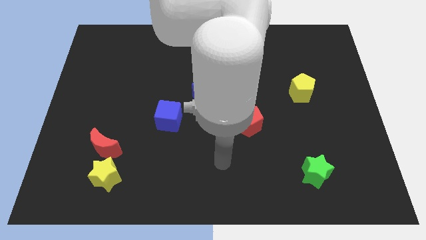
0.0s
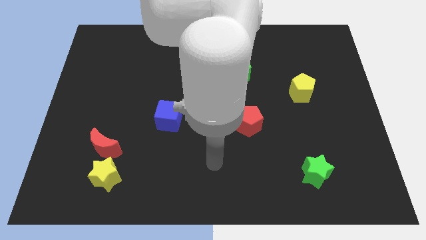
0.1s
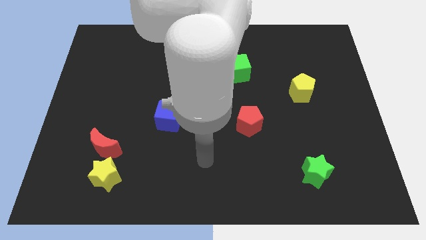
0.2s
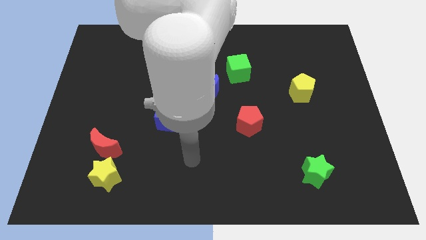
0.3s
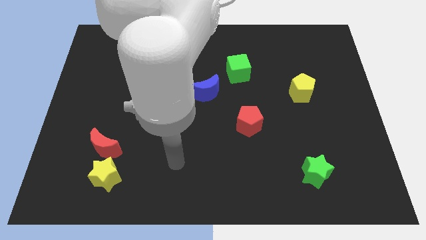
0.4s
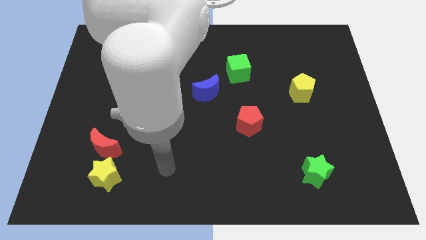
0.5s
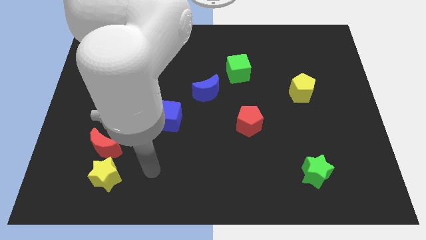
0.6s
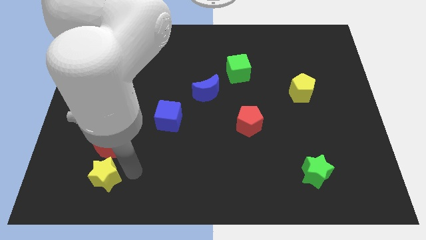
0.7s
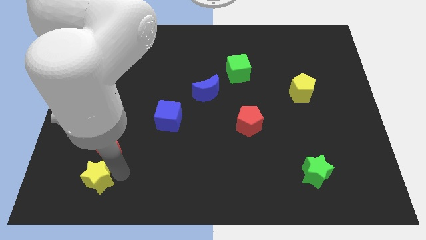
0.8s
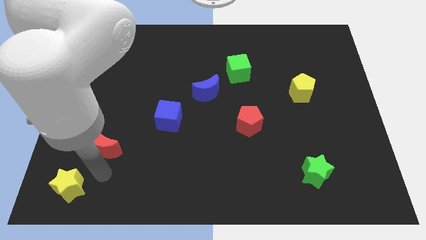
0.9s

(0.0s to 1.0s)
separate the red moon from the yellow star

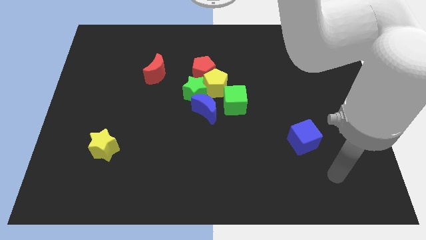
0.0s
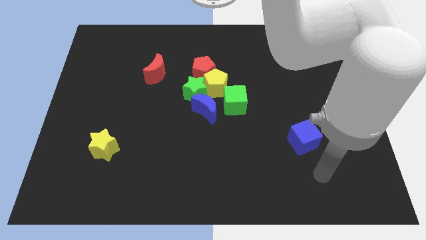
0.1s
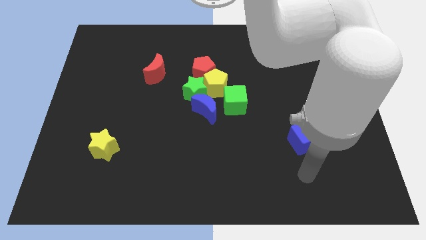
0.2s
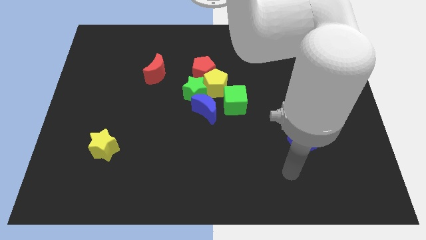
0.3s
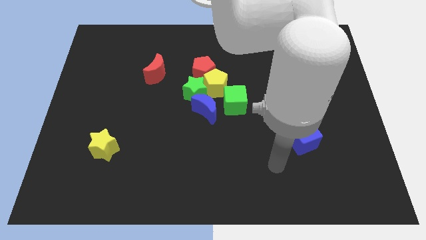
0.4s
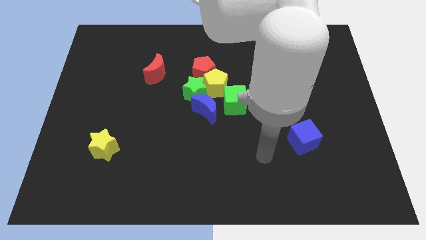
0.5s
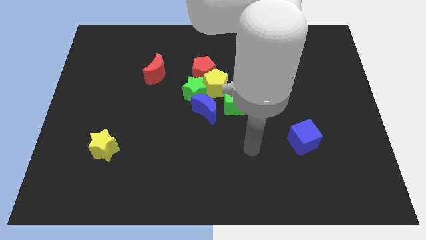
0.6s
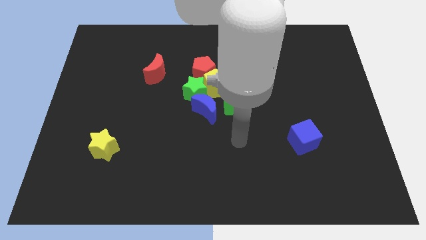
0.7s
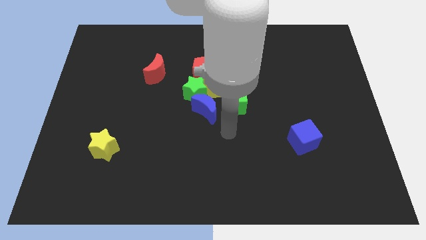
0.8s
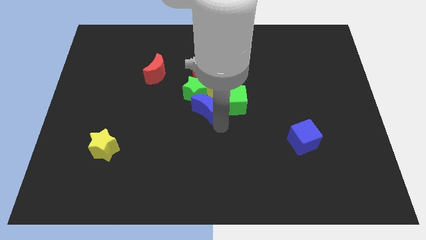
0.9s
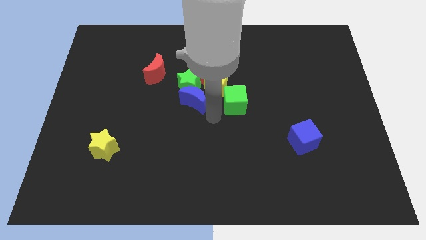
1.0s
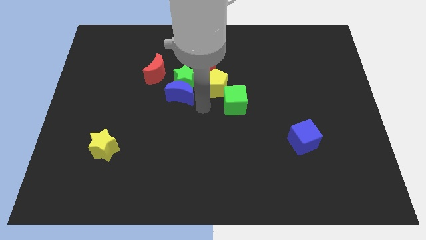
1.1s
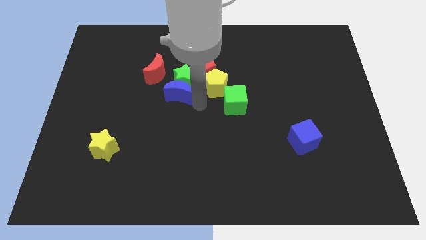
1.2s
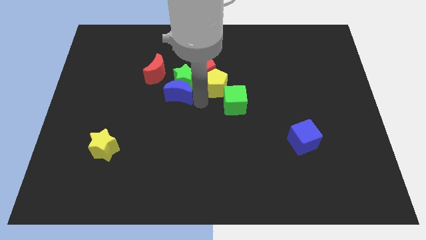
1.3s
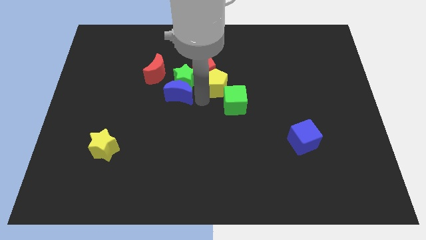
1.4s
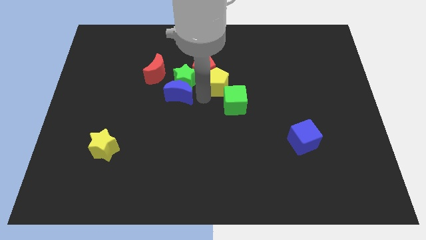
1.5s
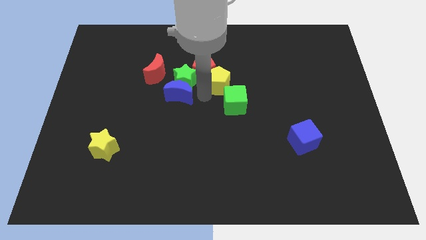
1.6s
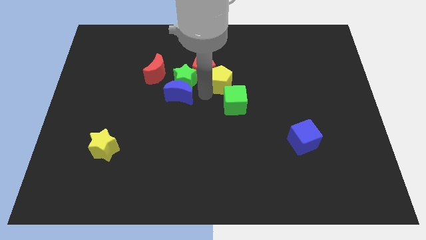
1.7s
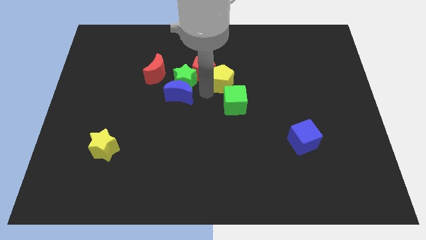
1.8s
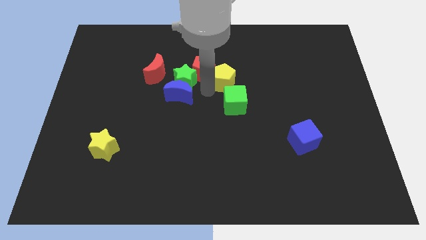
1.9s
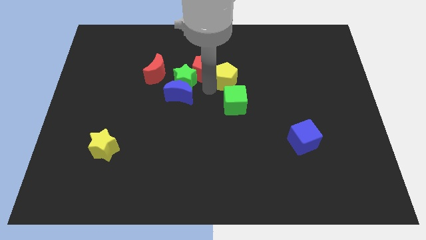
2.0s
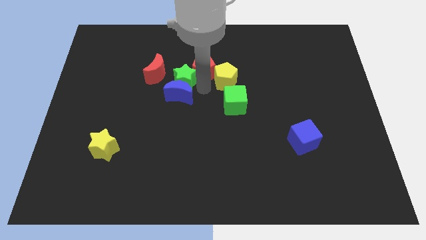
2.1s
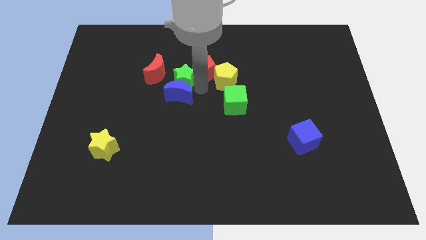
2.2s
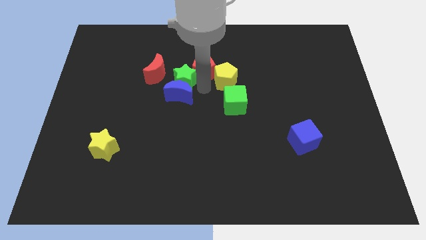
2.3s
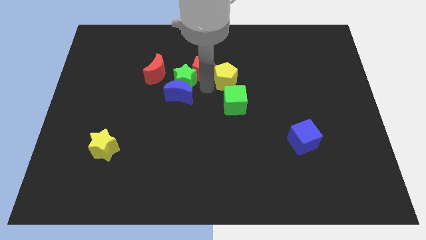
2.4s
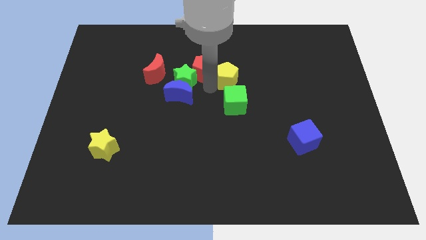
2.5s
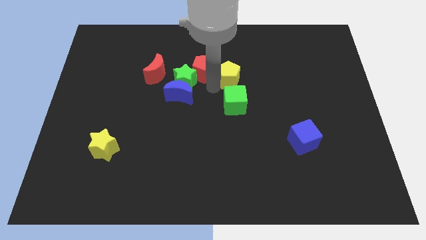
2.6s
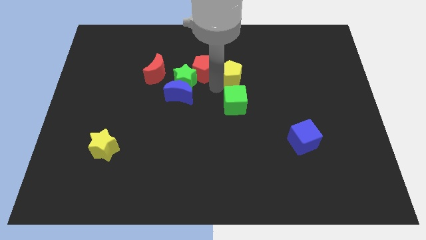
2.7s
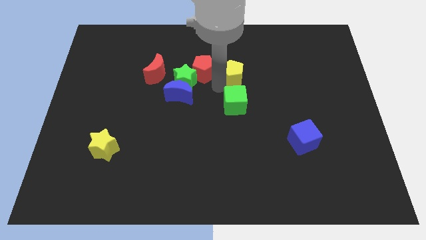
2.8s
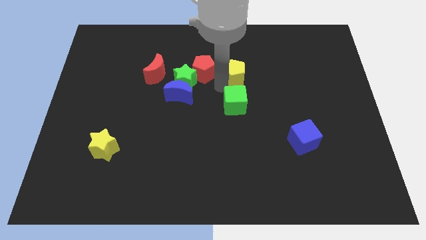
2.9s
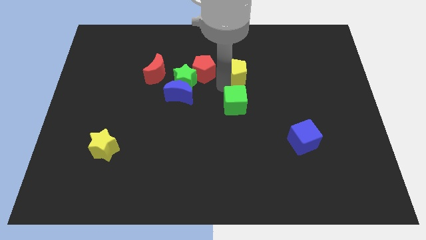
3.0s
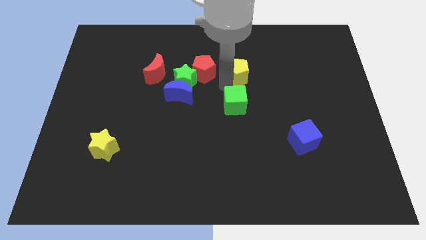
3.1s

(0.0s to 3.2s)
move the yellow pentagon away from the clump

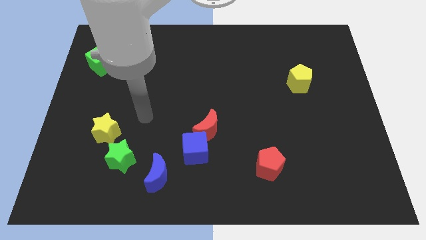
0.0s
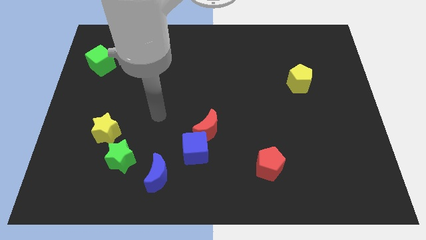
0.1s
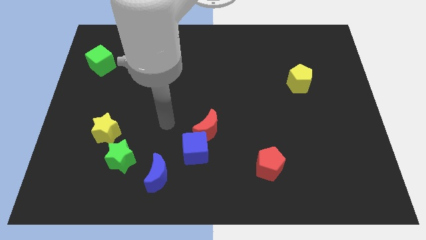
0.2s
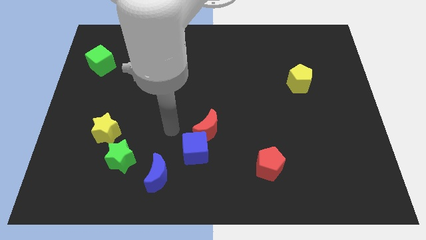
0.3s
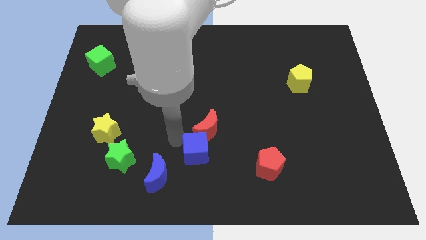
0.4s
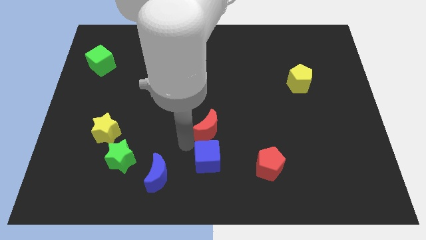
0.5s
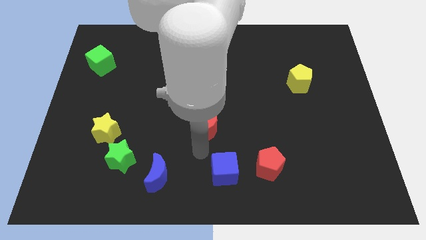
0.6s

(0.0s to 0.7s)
separate the red moon from the blue cube

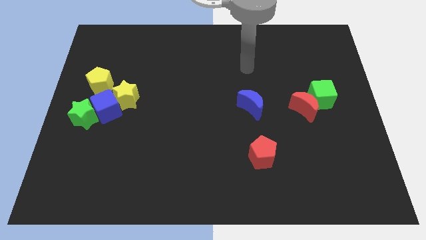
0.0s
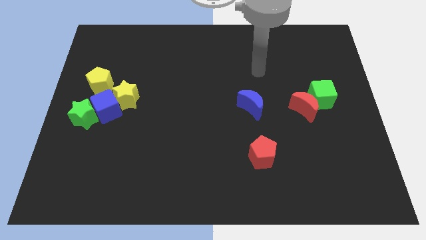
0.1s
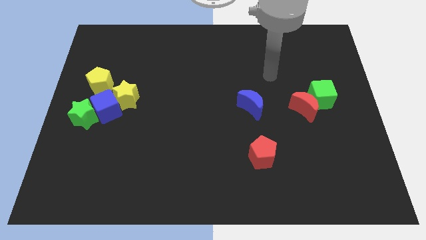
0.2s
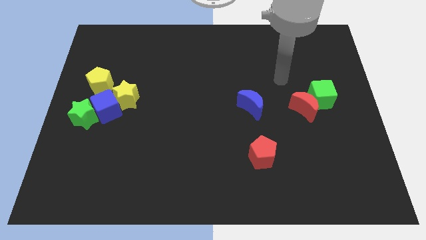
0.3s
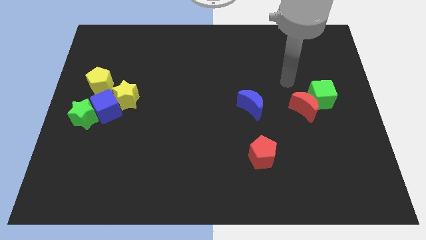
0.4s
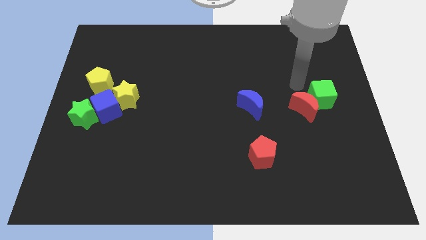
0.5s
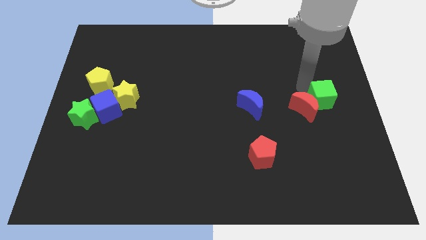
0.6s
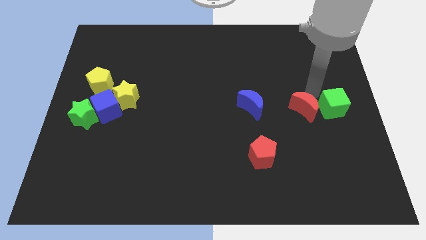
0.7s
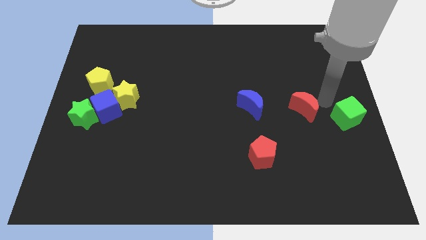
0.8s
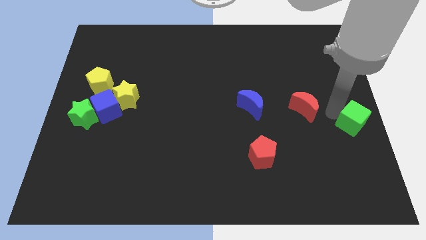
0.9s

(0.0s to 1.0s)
pull the red moon apart from the green cube

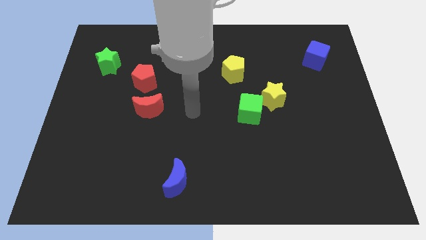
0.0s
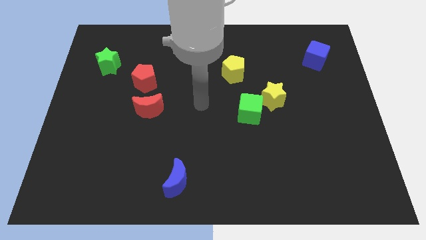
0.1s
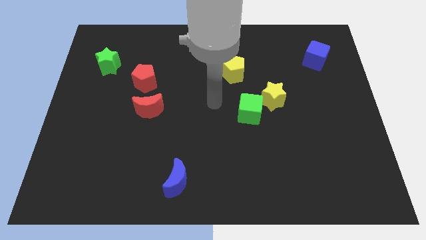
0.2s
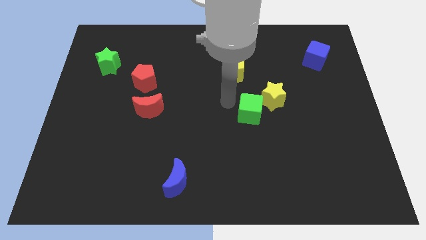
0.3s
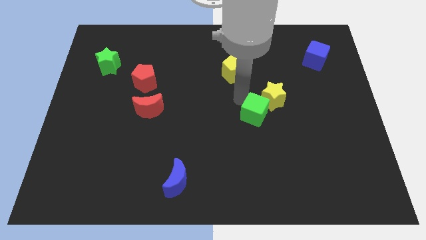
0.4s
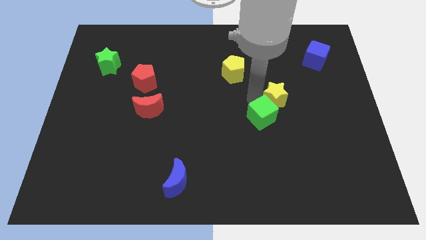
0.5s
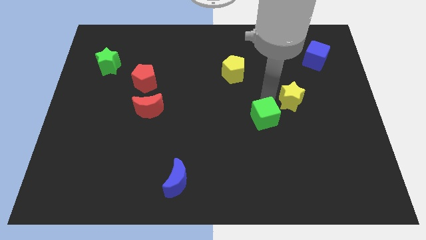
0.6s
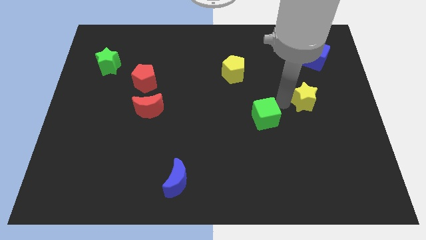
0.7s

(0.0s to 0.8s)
separate the green cube from the yellow star

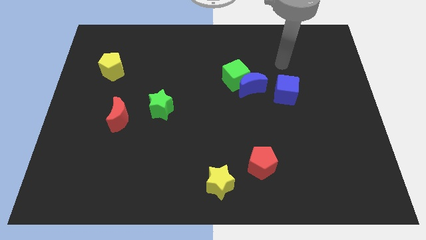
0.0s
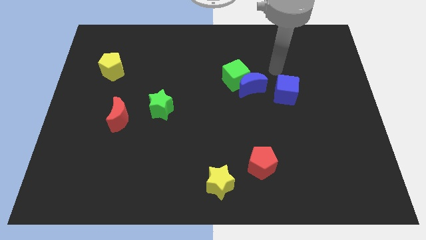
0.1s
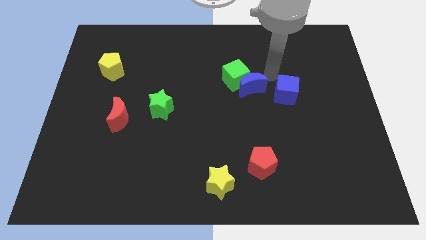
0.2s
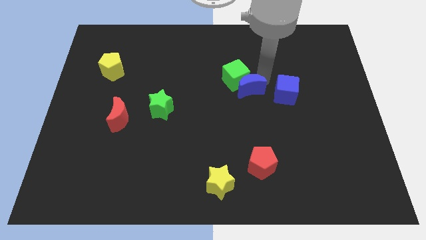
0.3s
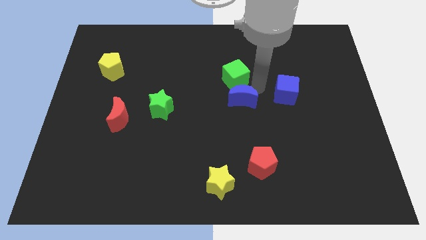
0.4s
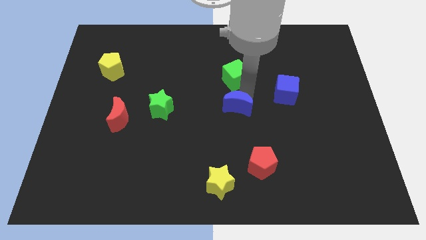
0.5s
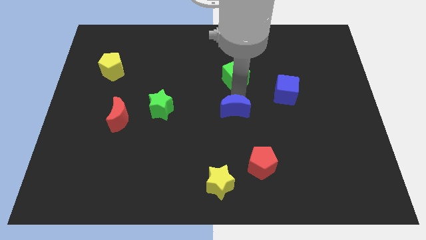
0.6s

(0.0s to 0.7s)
pull the green cube apart from the blue moon

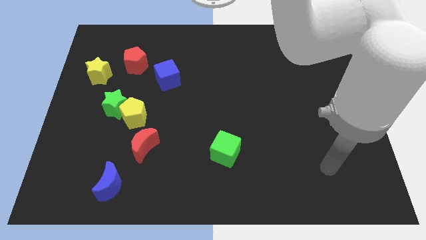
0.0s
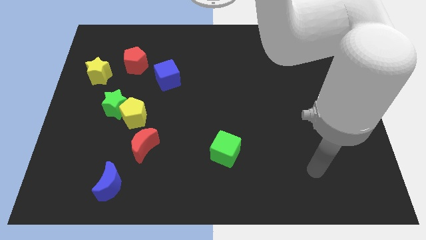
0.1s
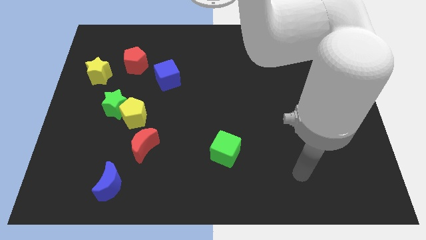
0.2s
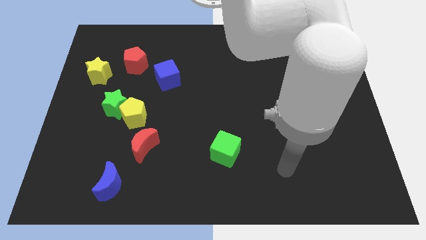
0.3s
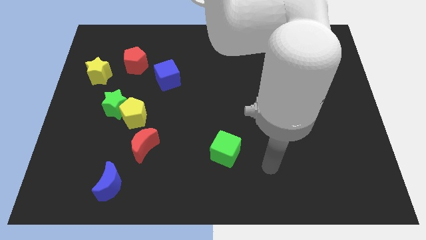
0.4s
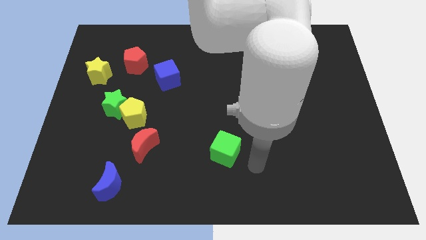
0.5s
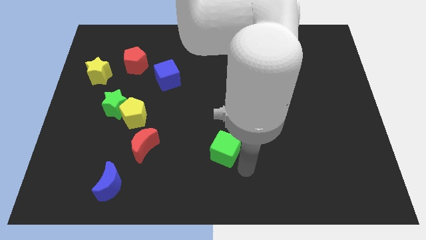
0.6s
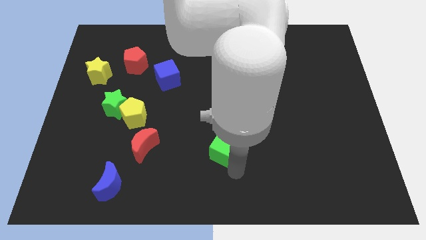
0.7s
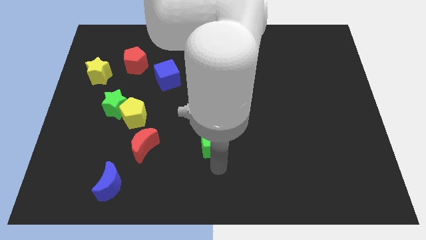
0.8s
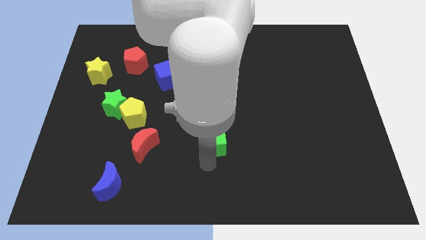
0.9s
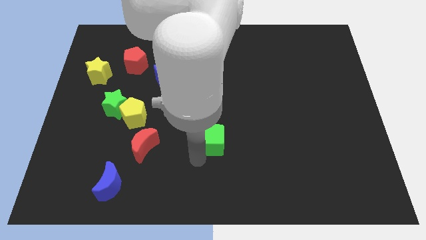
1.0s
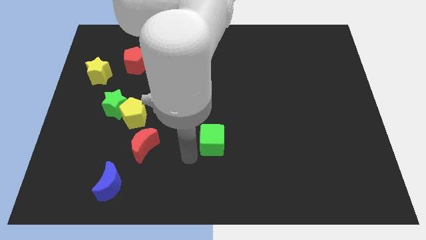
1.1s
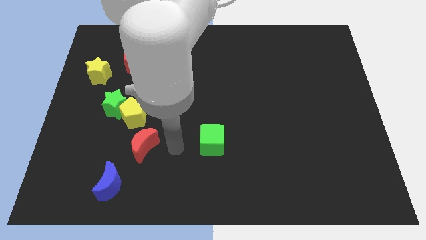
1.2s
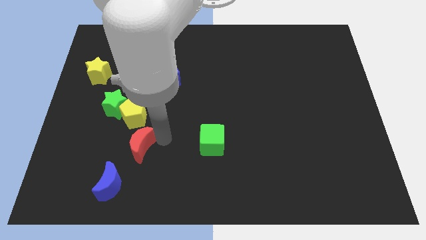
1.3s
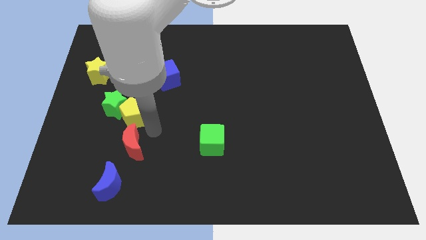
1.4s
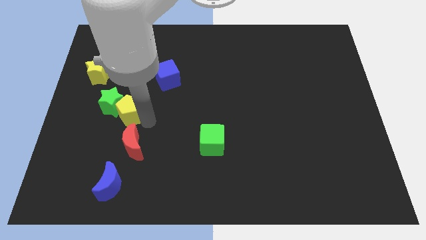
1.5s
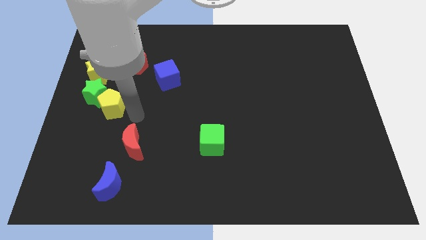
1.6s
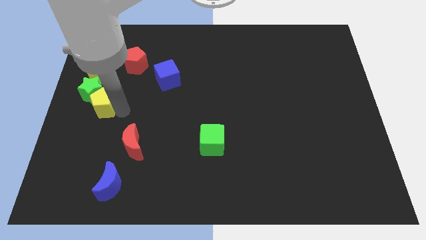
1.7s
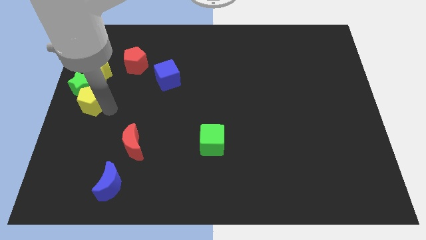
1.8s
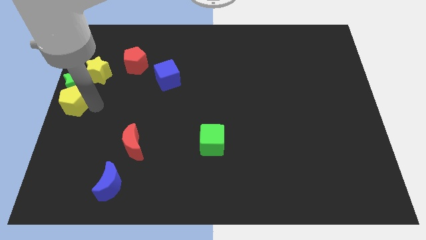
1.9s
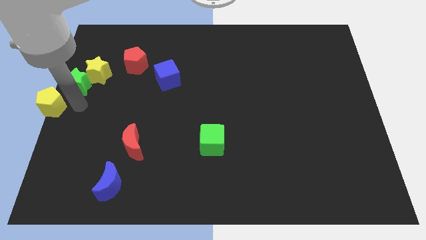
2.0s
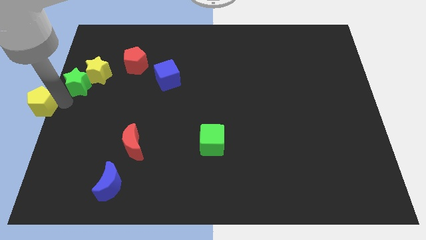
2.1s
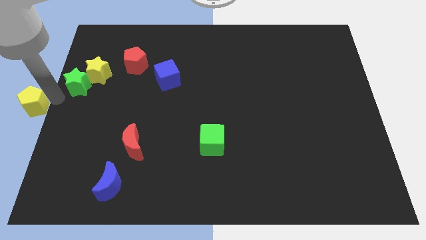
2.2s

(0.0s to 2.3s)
move the green star away from the yellow pentagon
